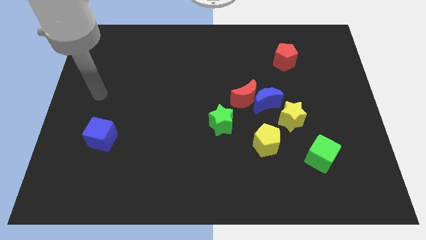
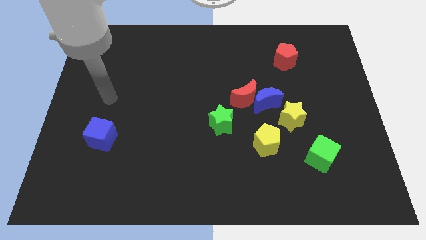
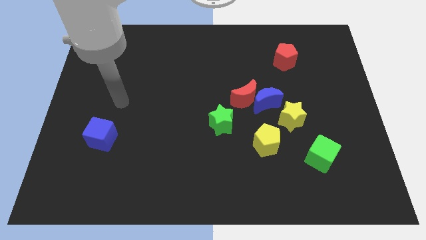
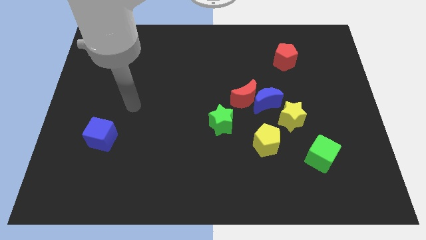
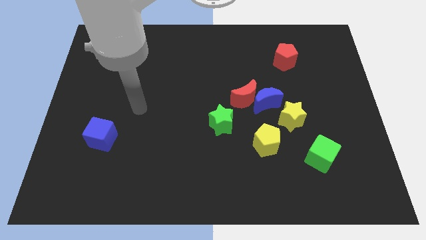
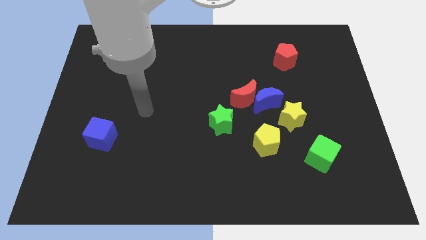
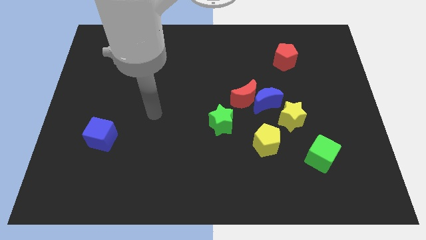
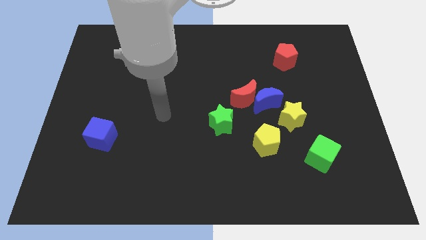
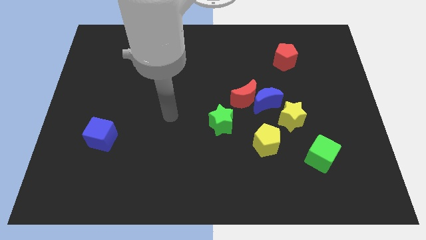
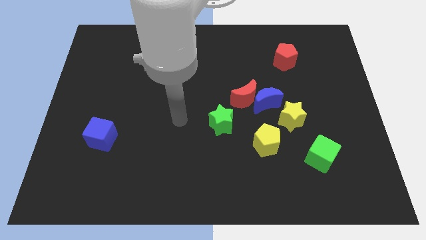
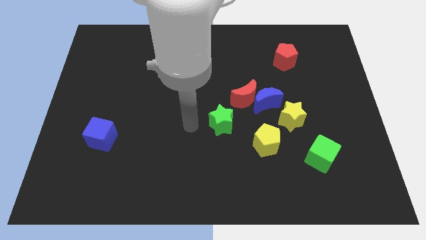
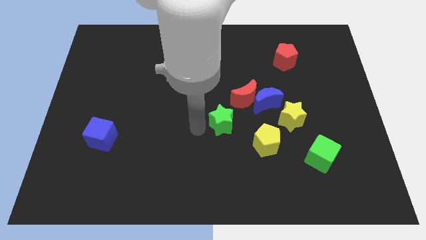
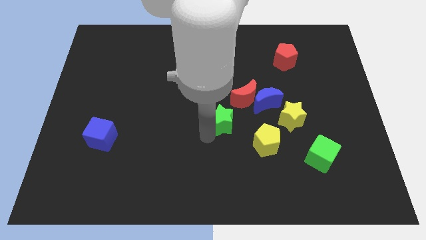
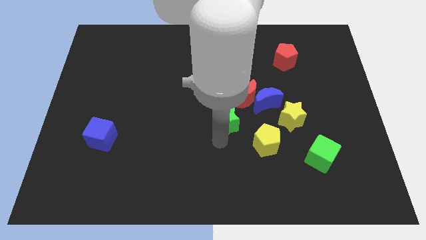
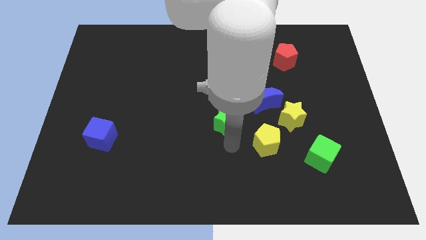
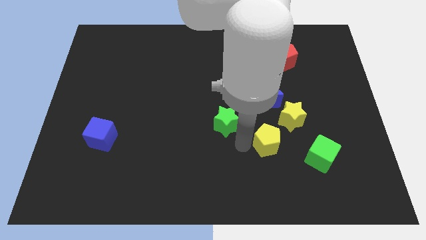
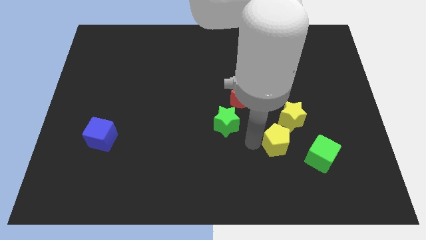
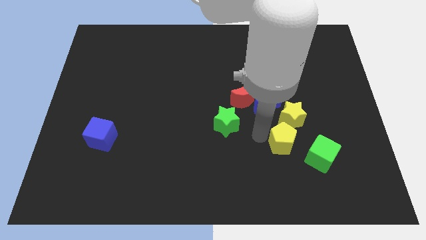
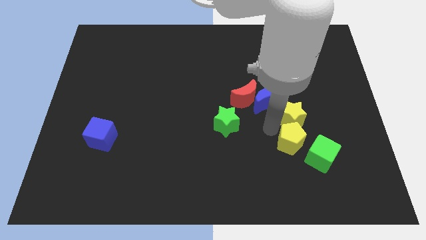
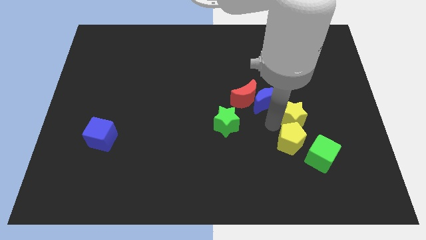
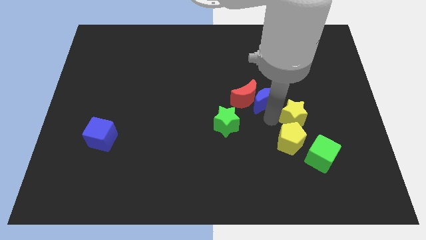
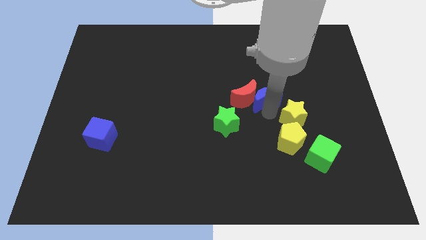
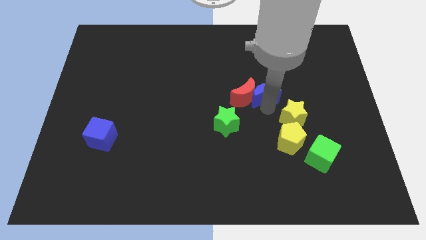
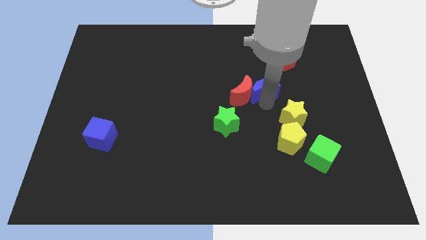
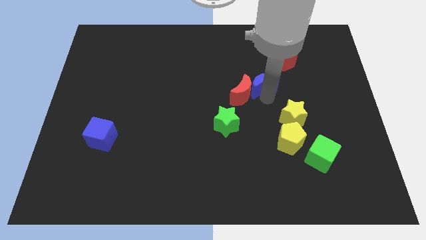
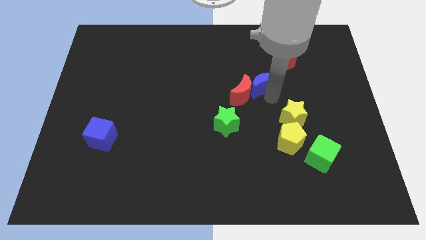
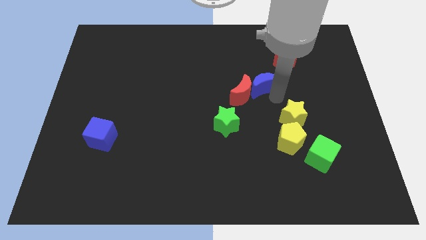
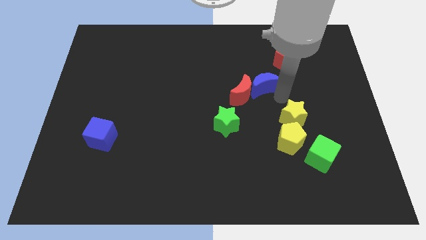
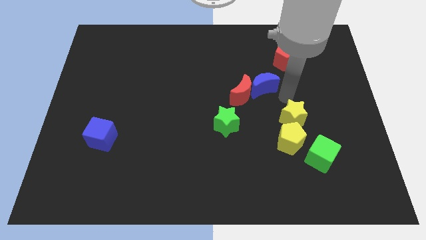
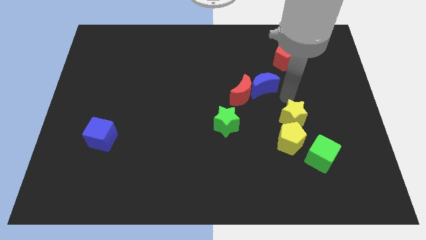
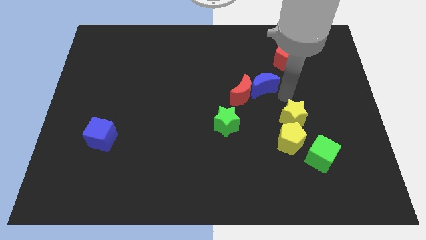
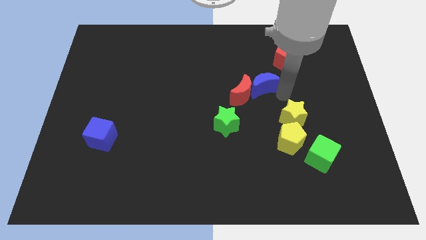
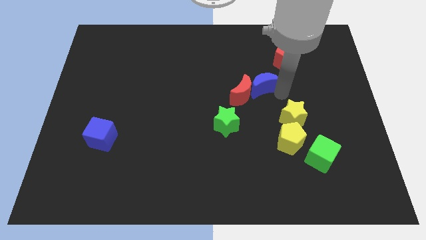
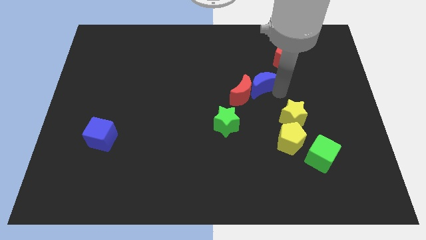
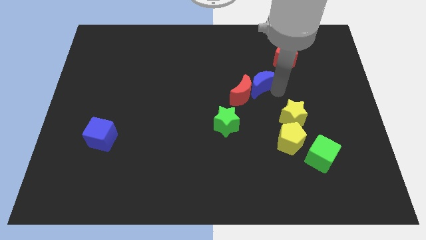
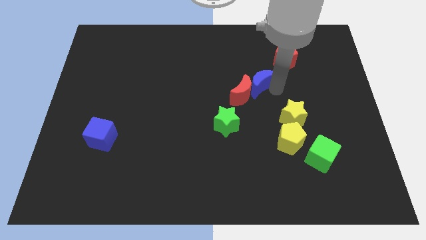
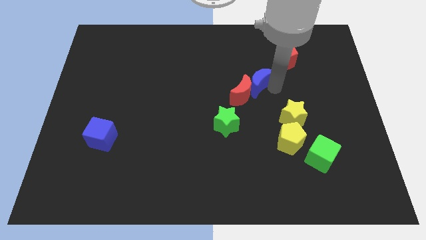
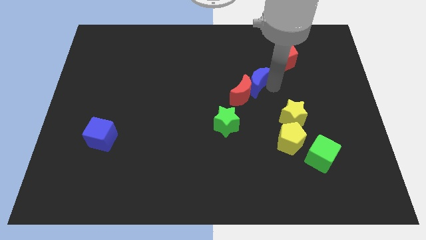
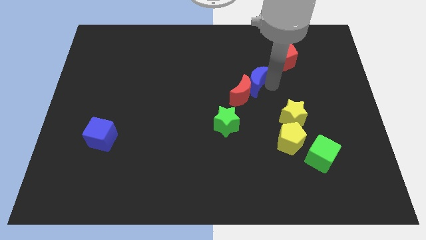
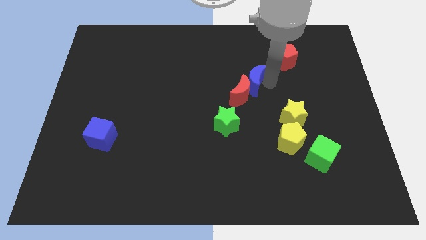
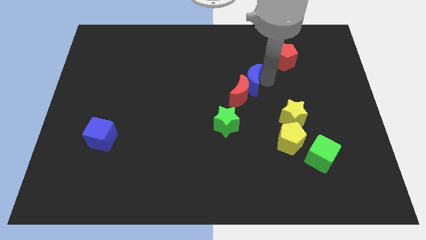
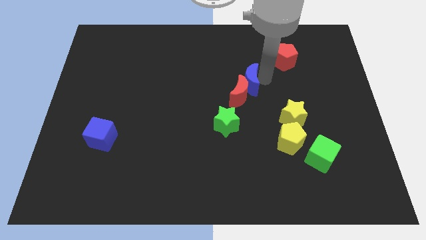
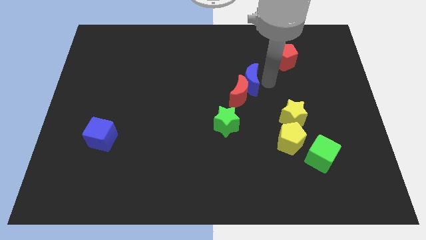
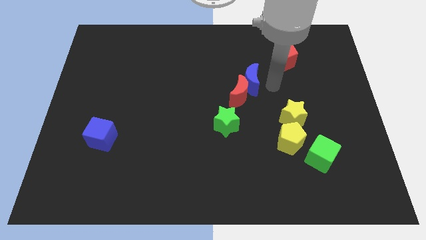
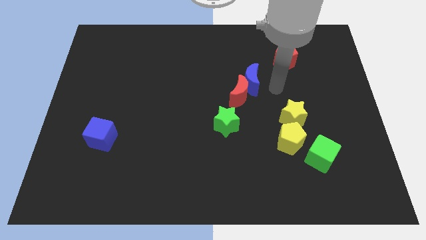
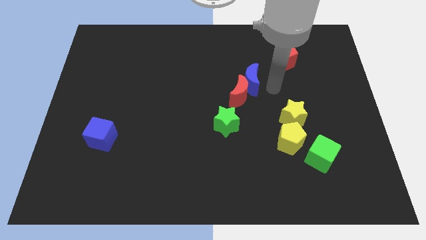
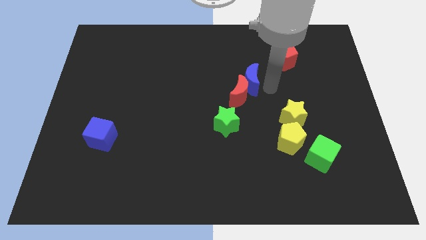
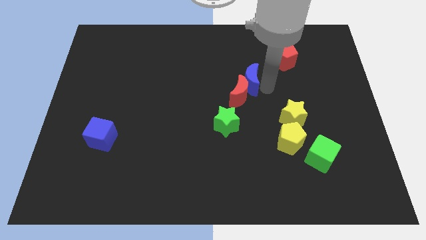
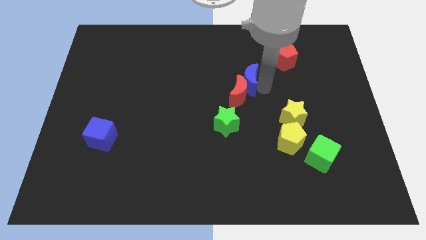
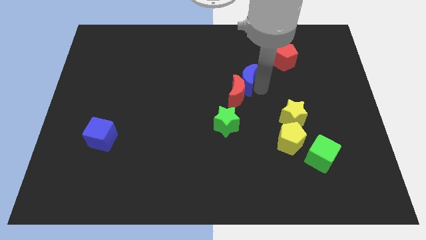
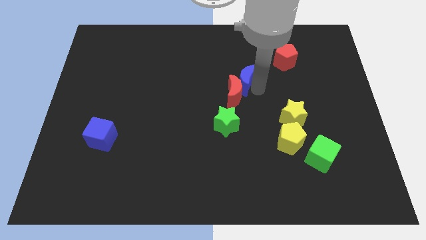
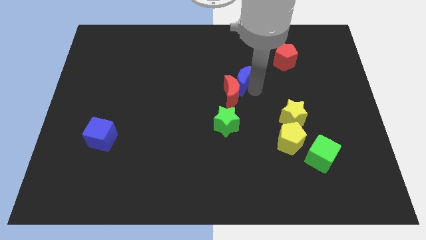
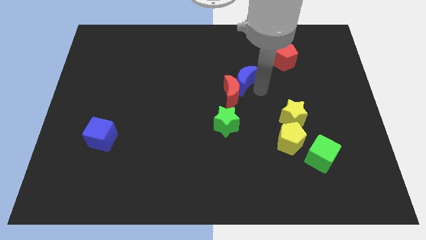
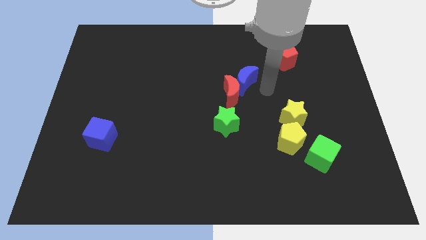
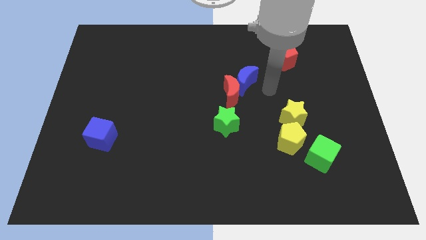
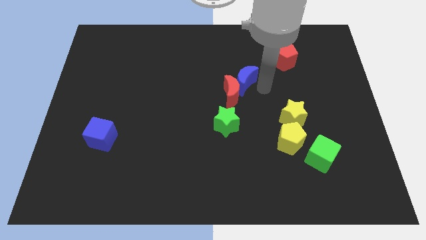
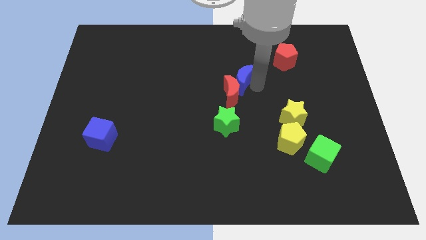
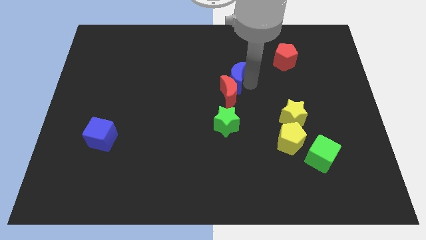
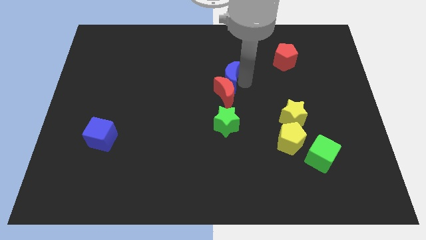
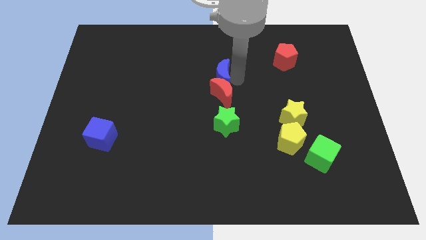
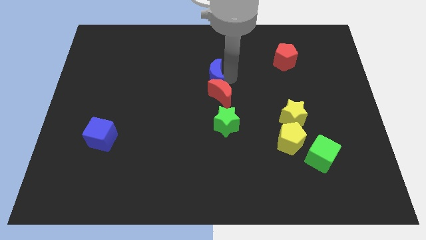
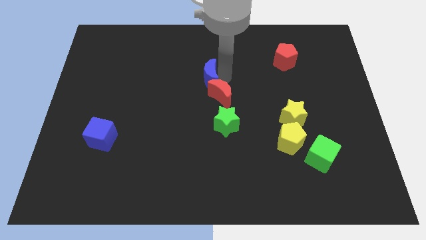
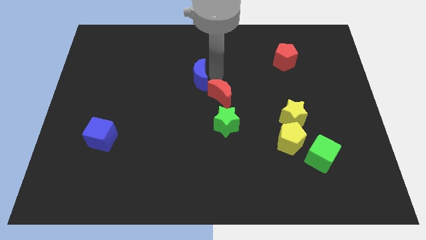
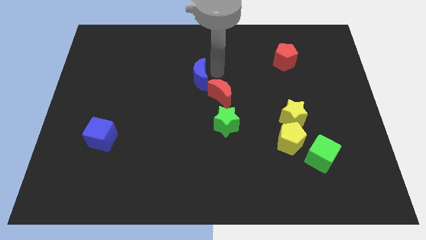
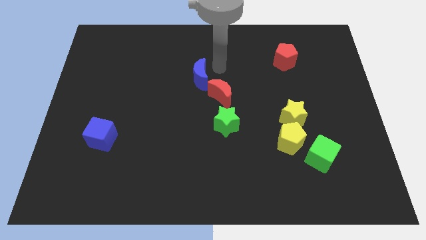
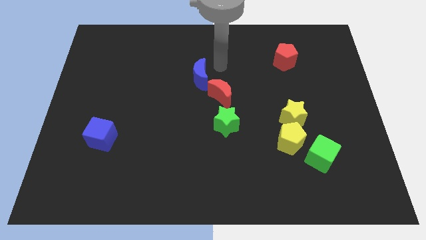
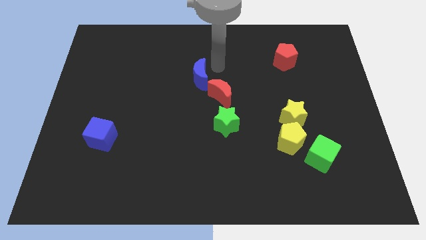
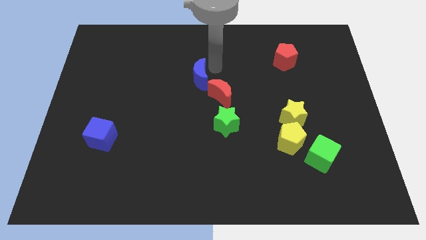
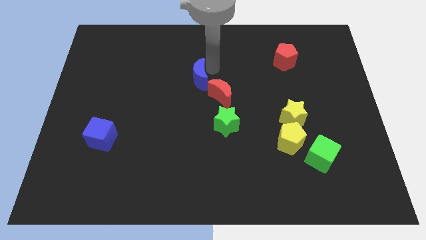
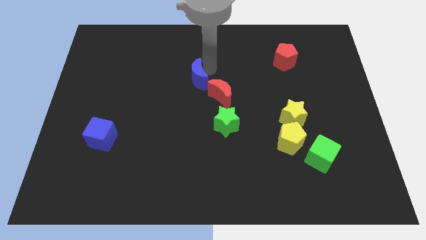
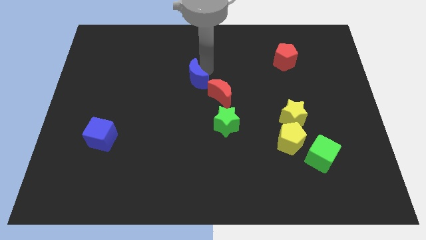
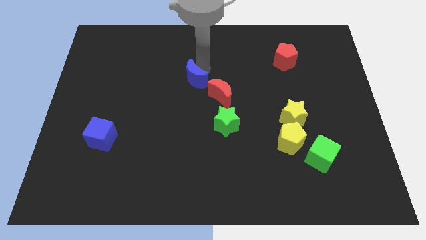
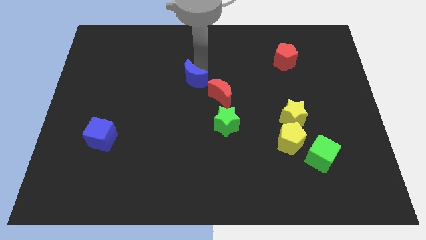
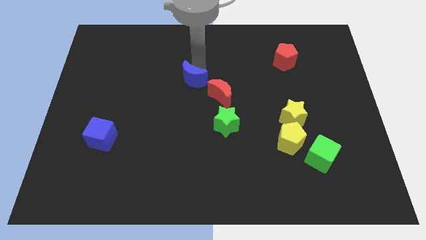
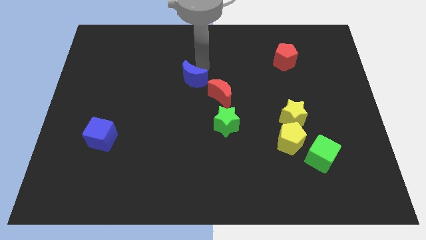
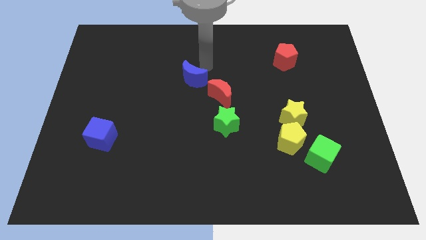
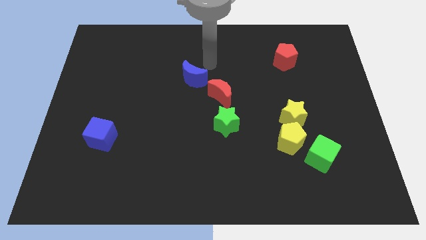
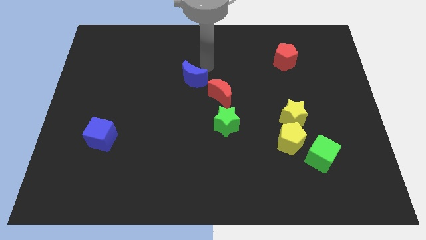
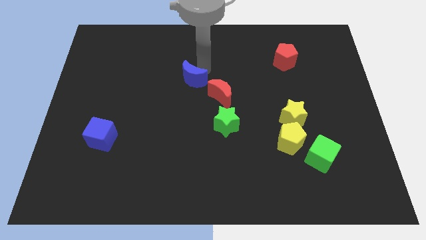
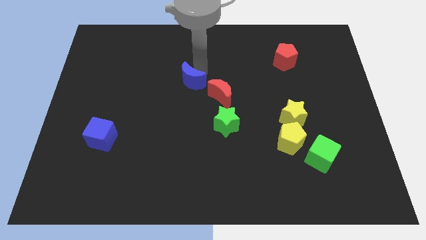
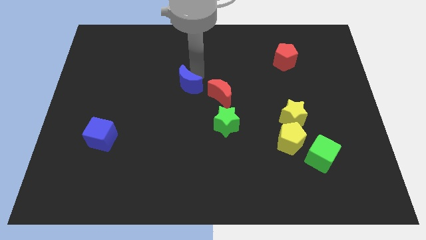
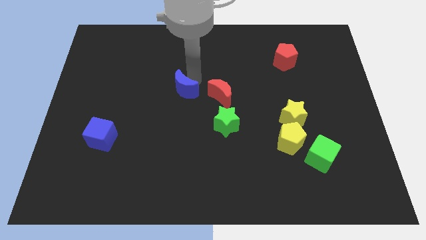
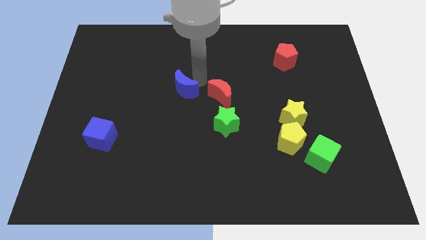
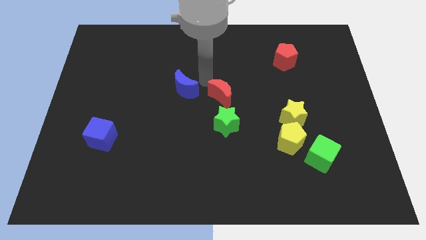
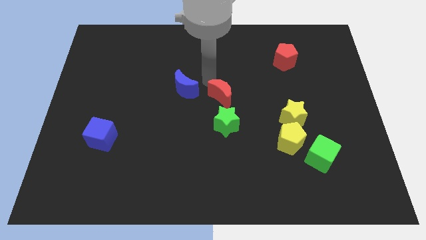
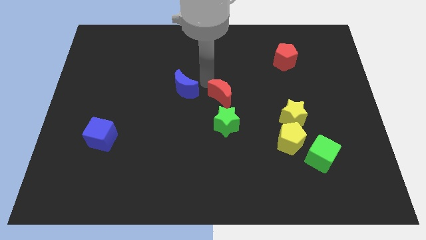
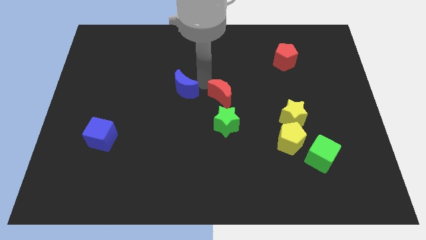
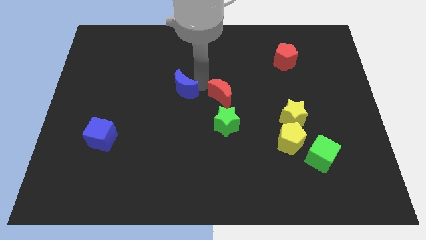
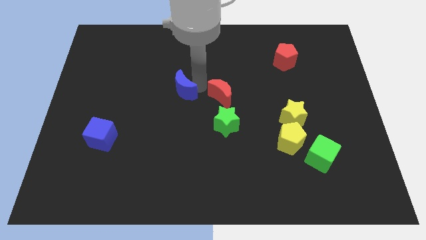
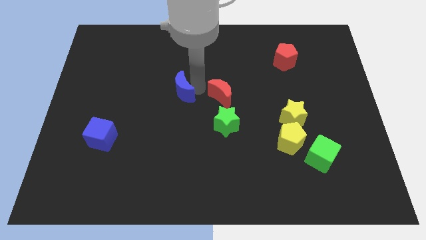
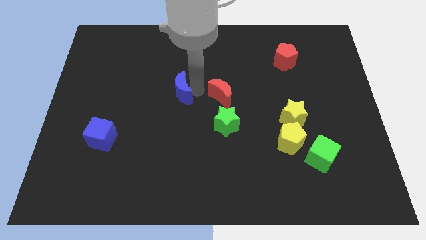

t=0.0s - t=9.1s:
slide the blue moon to the left
